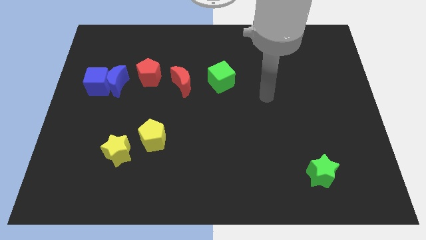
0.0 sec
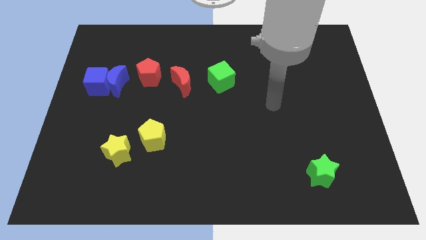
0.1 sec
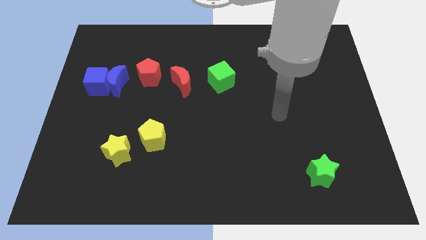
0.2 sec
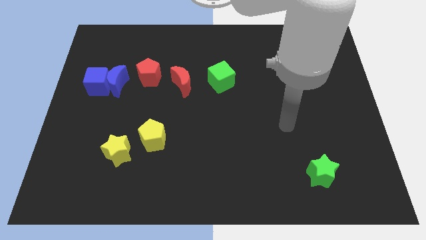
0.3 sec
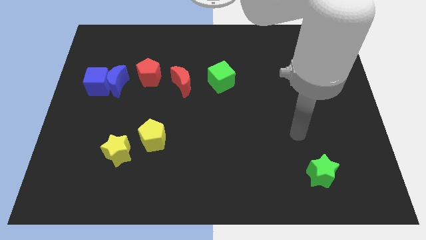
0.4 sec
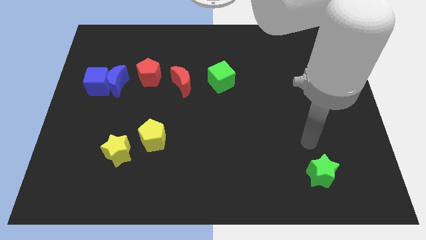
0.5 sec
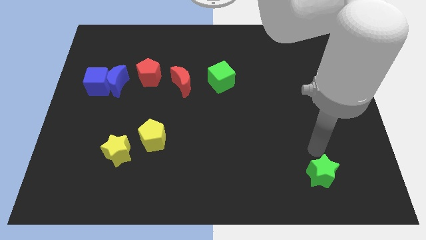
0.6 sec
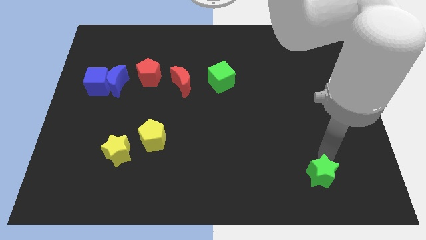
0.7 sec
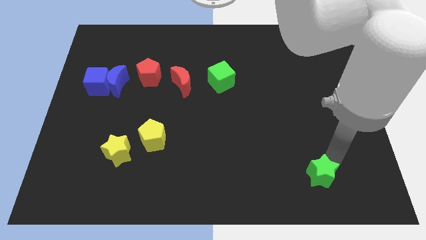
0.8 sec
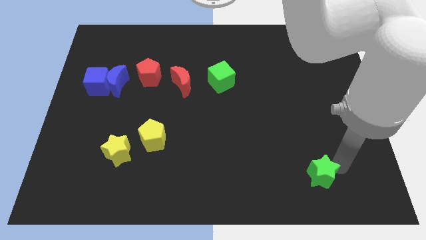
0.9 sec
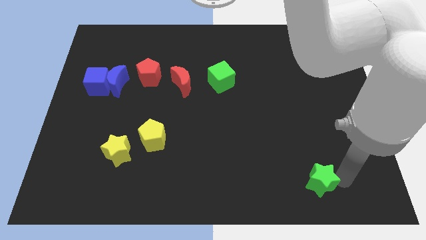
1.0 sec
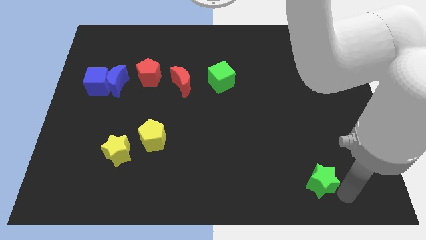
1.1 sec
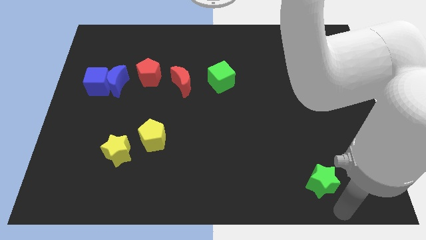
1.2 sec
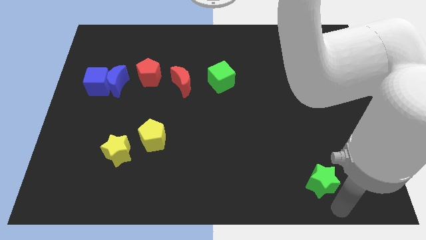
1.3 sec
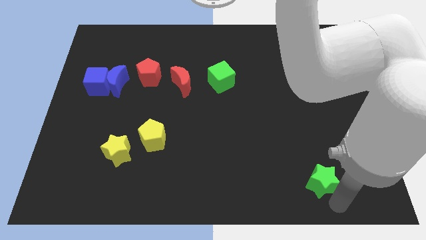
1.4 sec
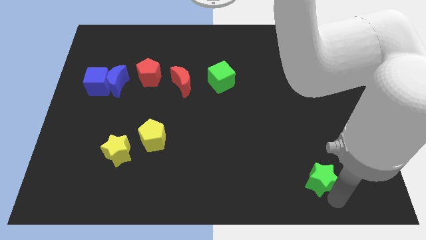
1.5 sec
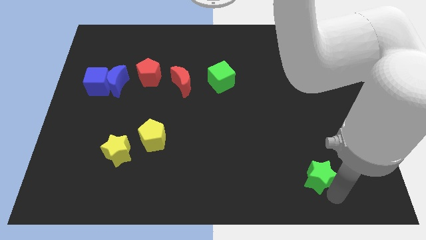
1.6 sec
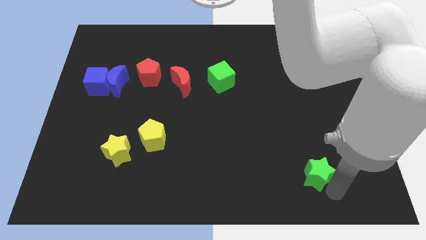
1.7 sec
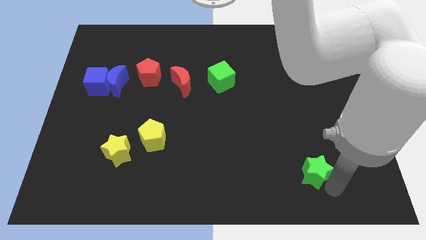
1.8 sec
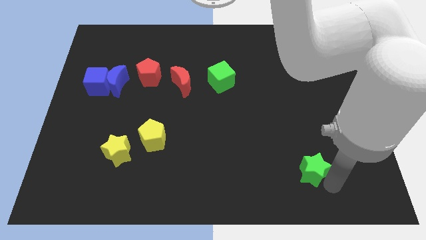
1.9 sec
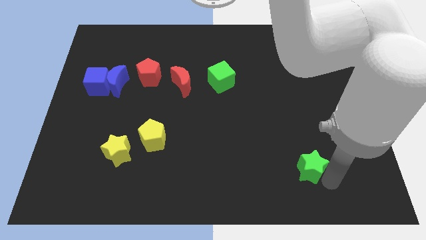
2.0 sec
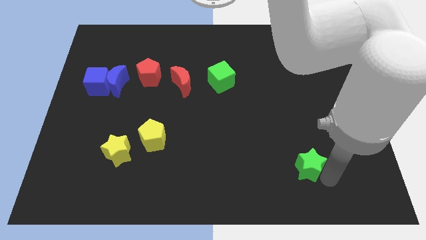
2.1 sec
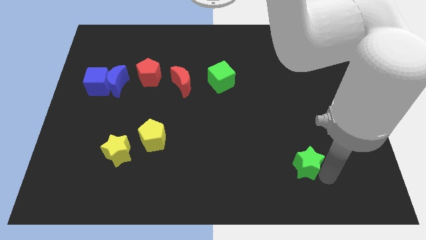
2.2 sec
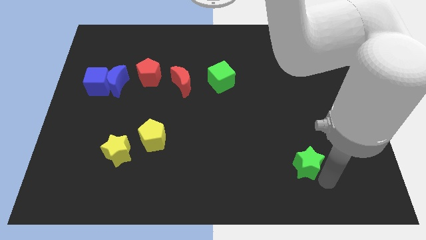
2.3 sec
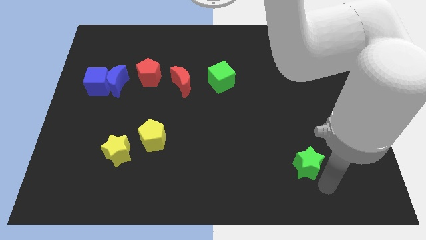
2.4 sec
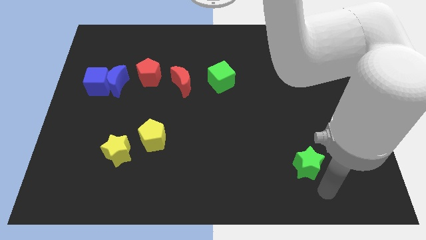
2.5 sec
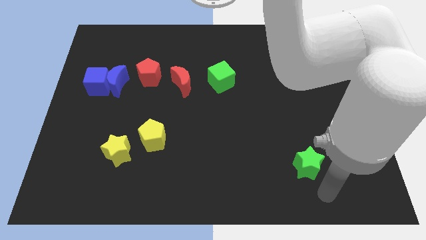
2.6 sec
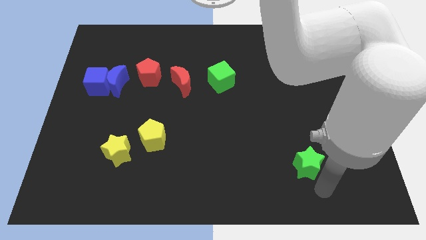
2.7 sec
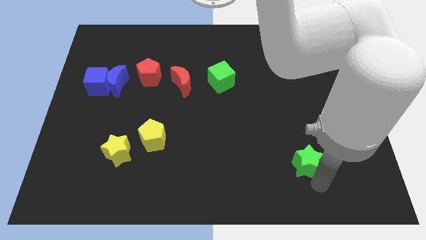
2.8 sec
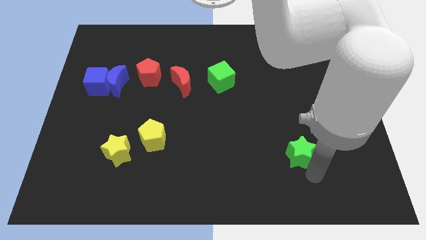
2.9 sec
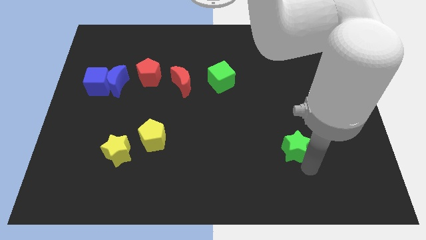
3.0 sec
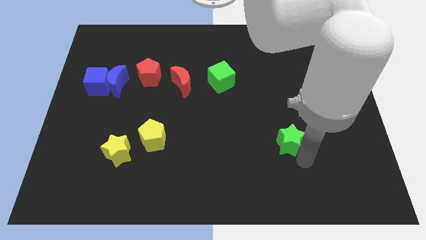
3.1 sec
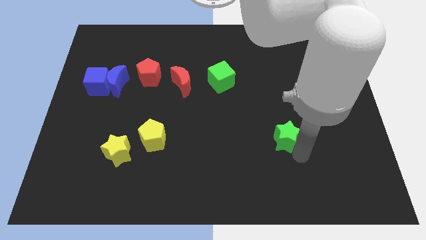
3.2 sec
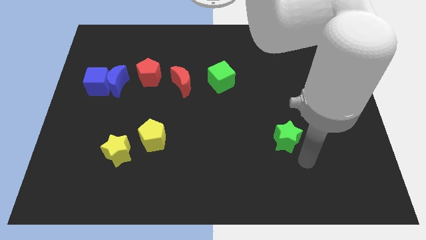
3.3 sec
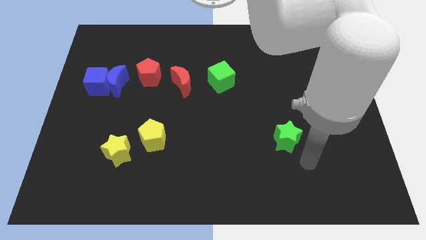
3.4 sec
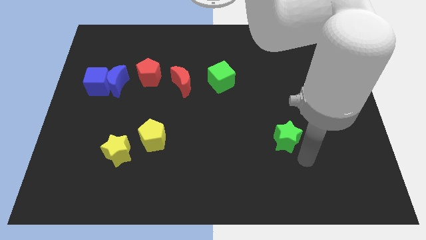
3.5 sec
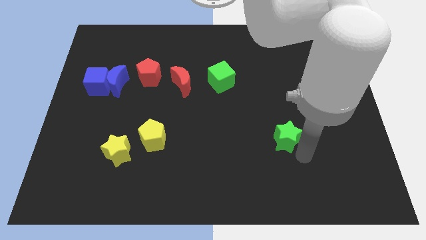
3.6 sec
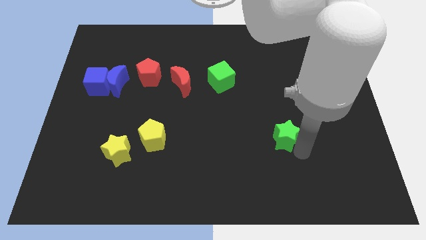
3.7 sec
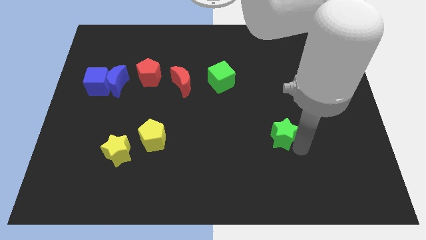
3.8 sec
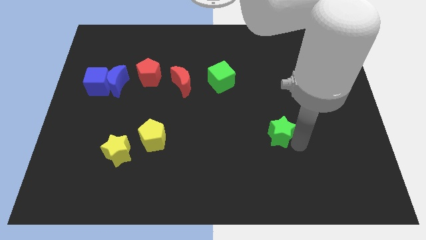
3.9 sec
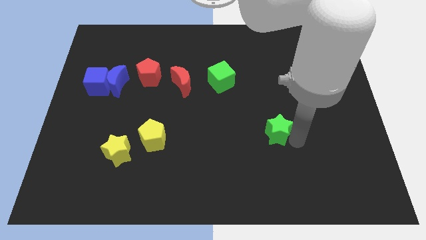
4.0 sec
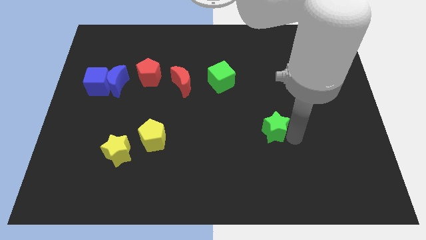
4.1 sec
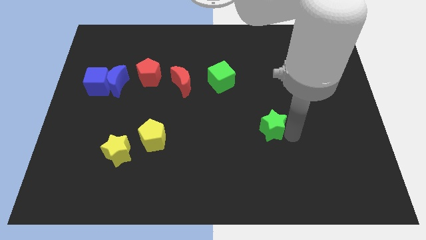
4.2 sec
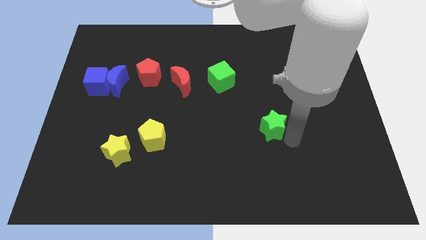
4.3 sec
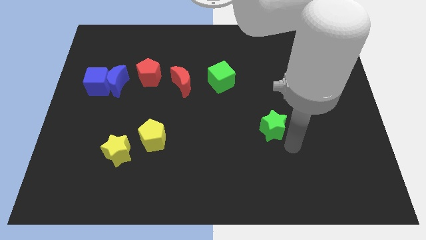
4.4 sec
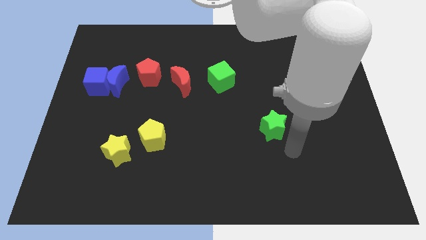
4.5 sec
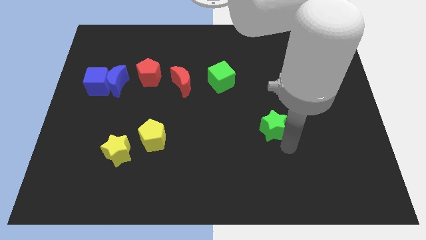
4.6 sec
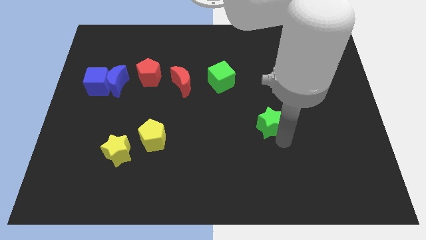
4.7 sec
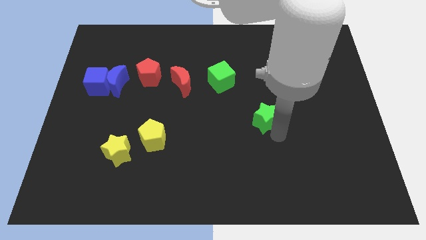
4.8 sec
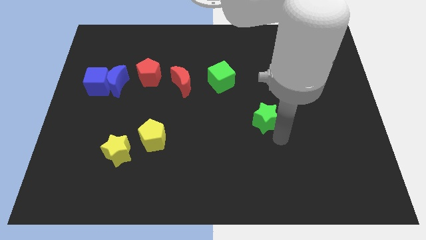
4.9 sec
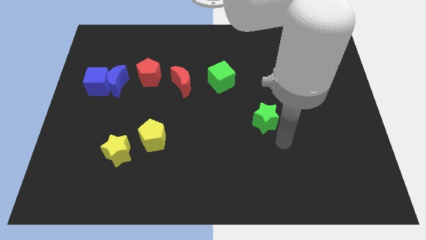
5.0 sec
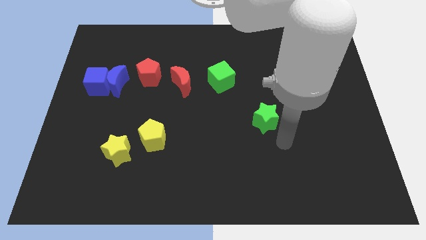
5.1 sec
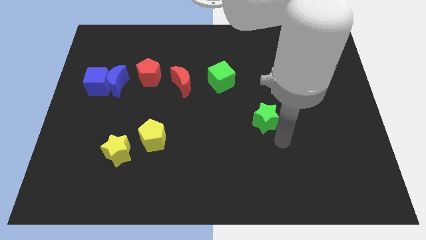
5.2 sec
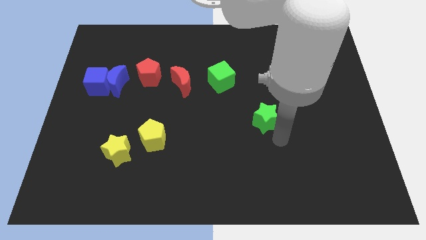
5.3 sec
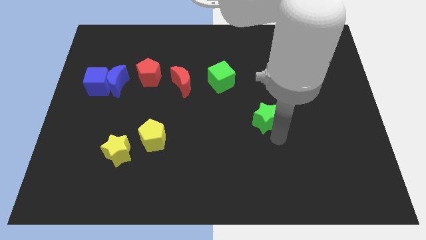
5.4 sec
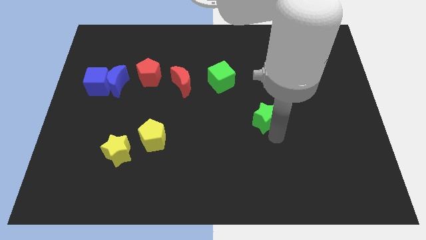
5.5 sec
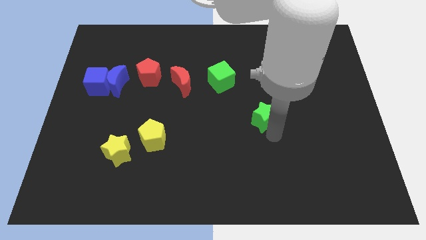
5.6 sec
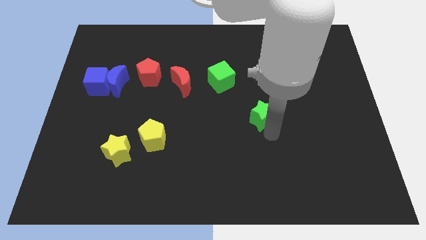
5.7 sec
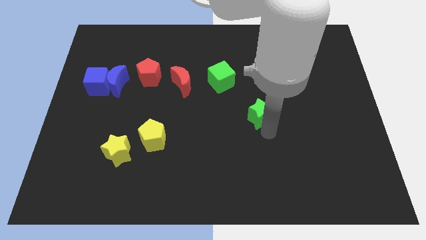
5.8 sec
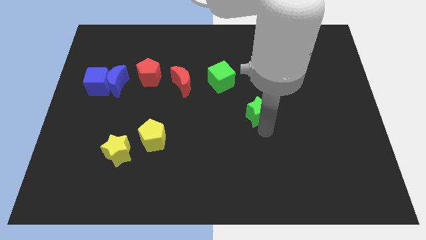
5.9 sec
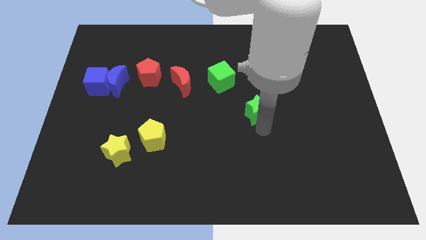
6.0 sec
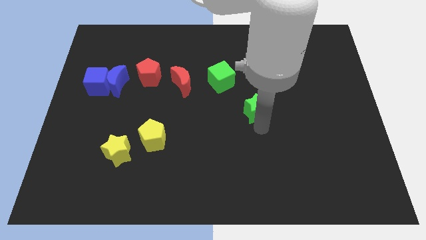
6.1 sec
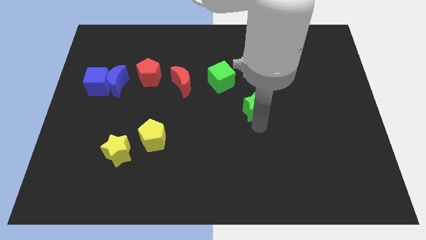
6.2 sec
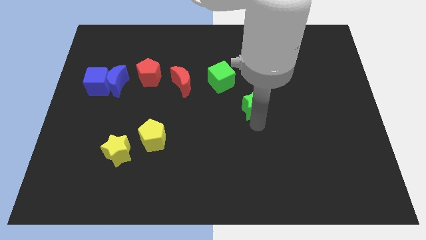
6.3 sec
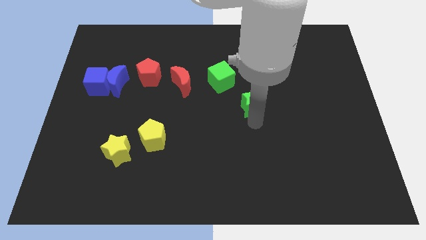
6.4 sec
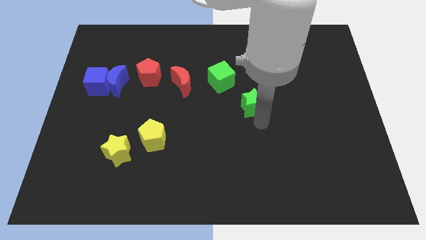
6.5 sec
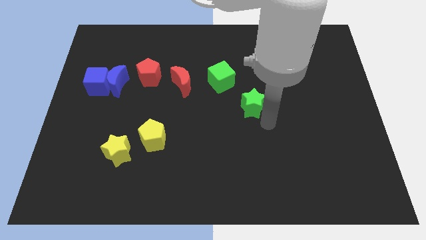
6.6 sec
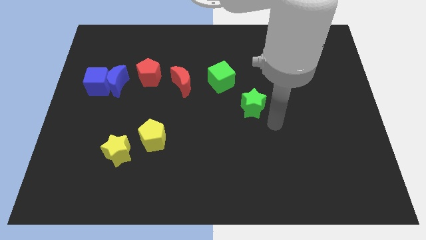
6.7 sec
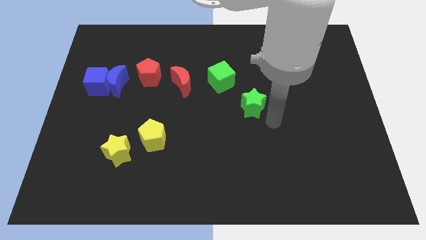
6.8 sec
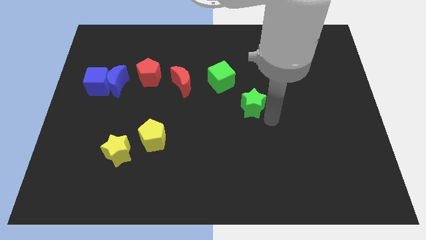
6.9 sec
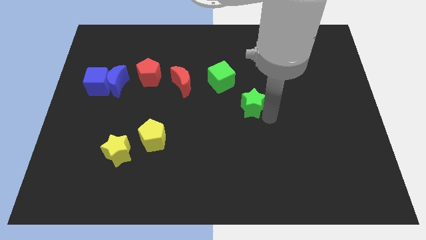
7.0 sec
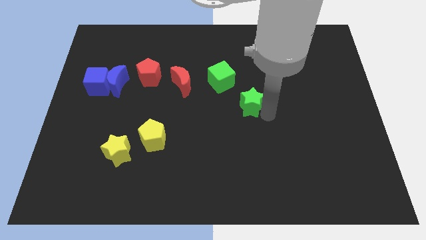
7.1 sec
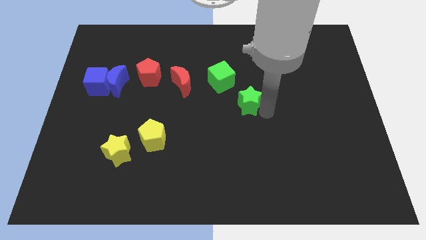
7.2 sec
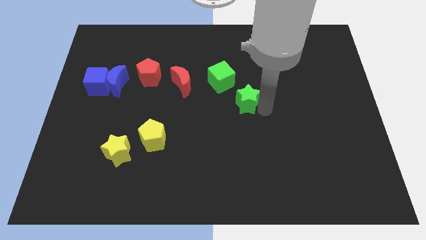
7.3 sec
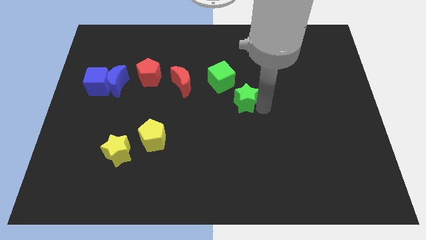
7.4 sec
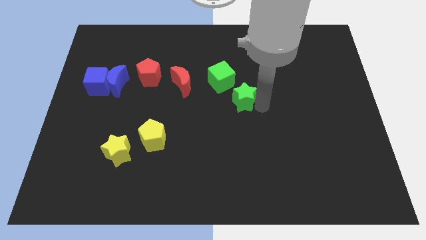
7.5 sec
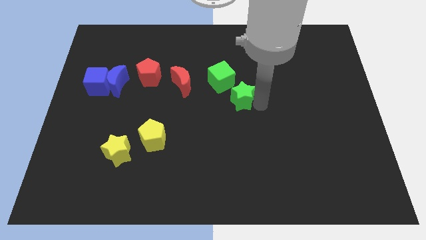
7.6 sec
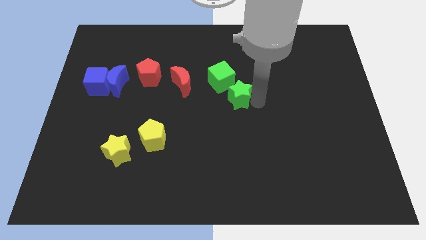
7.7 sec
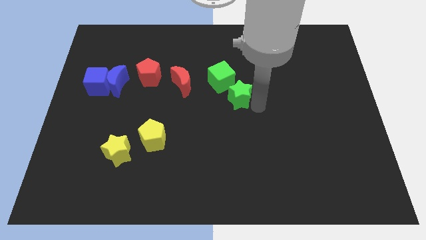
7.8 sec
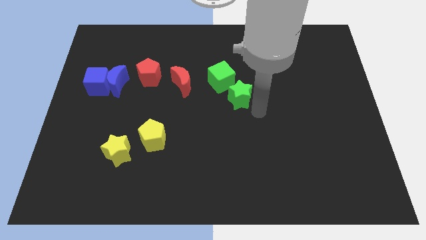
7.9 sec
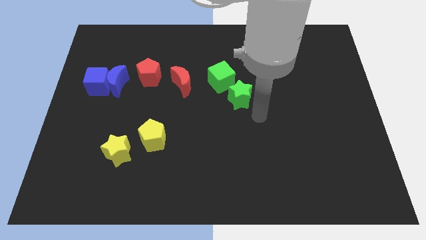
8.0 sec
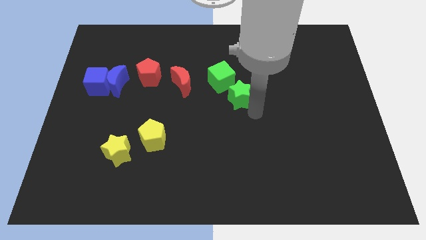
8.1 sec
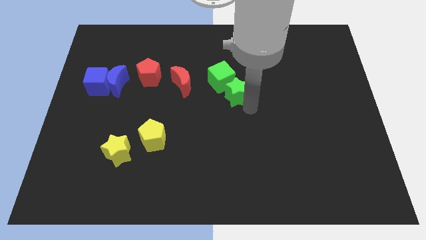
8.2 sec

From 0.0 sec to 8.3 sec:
put the green star to the green cube
